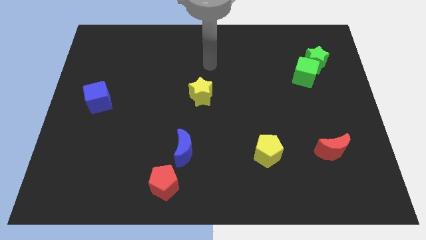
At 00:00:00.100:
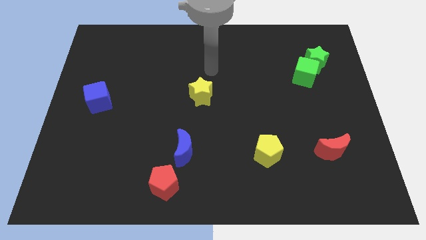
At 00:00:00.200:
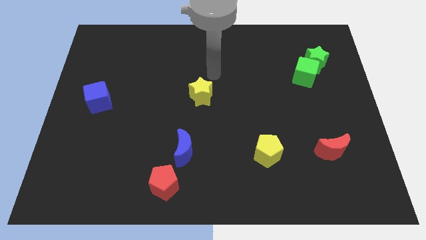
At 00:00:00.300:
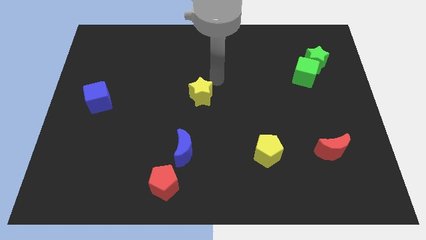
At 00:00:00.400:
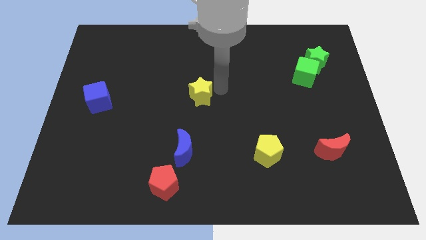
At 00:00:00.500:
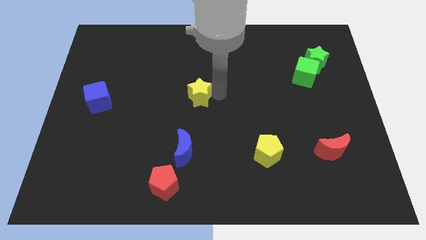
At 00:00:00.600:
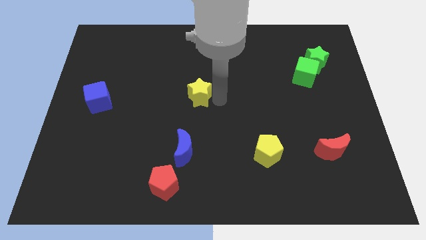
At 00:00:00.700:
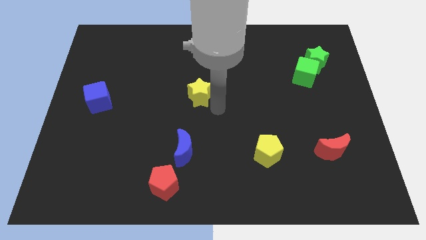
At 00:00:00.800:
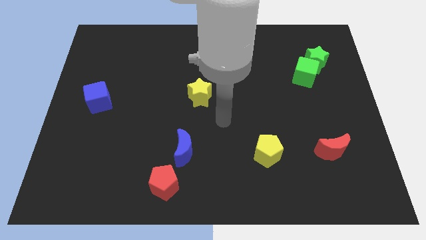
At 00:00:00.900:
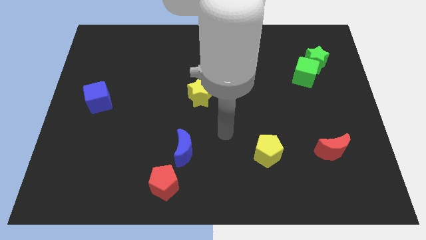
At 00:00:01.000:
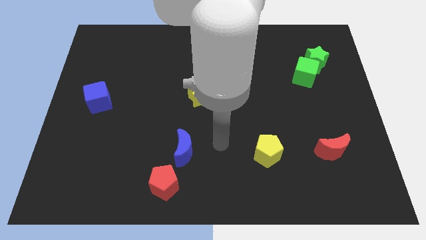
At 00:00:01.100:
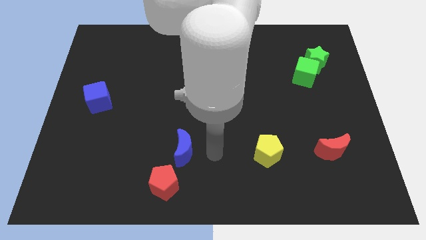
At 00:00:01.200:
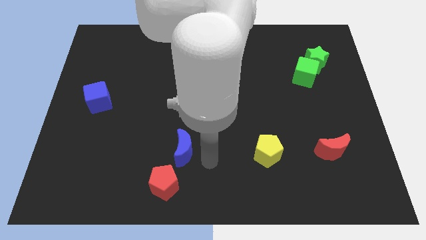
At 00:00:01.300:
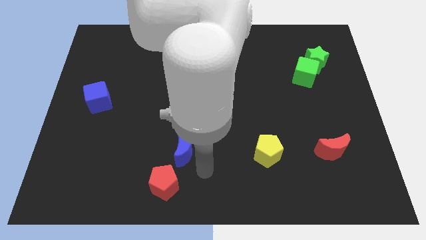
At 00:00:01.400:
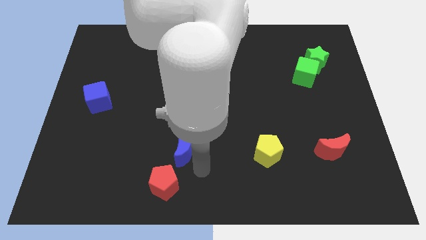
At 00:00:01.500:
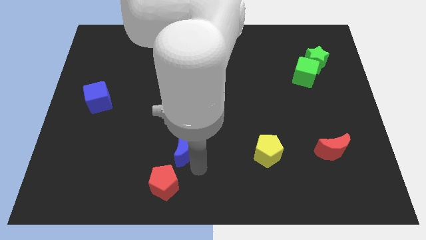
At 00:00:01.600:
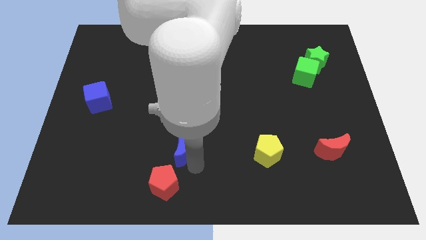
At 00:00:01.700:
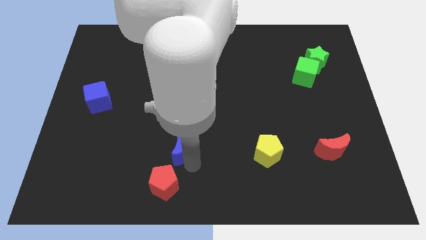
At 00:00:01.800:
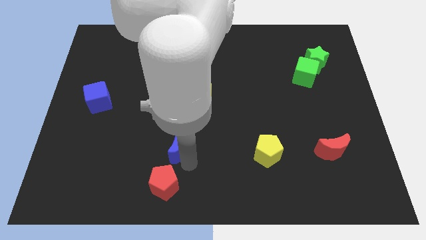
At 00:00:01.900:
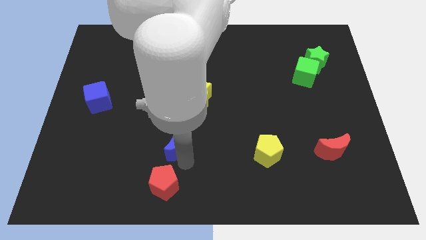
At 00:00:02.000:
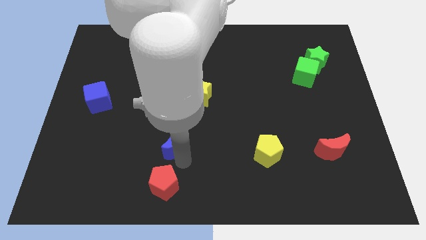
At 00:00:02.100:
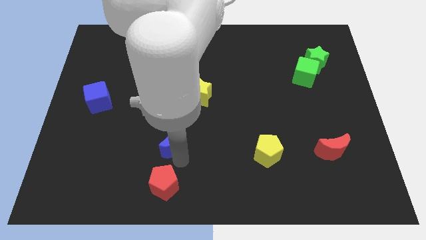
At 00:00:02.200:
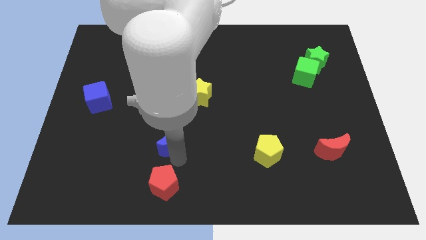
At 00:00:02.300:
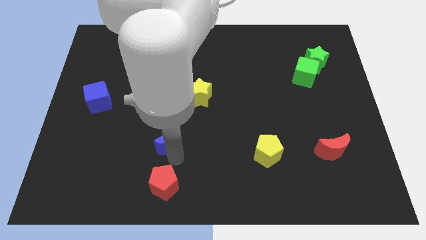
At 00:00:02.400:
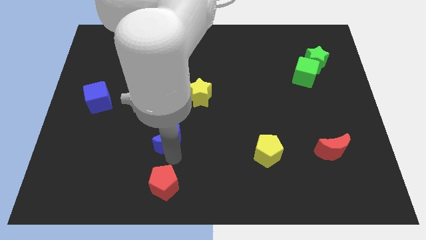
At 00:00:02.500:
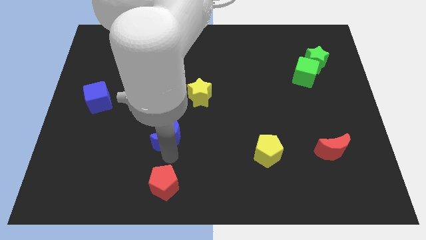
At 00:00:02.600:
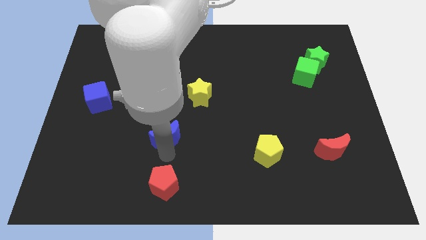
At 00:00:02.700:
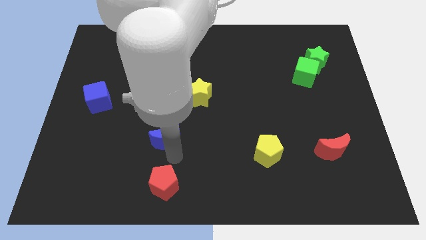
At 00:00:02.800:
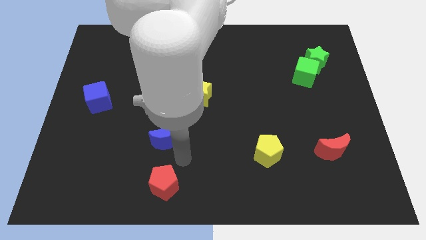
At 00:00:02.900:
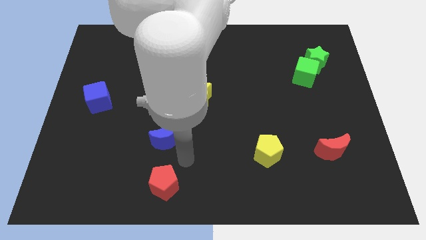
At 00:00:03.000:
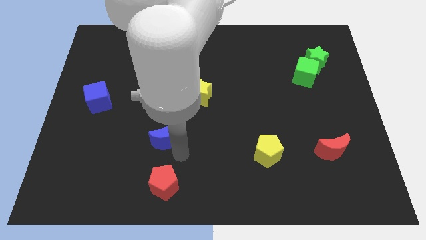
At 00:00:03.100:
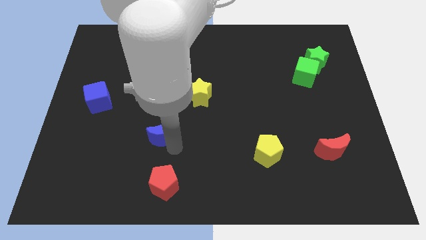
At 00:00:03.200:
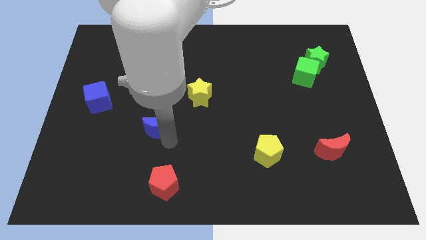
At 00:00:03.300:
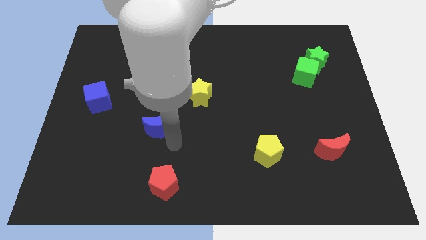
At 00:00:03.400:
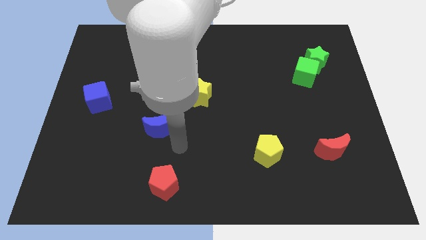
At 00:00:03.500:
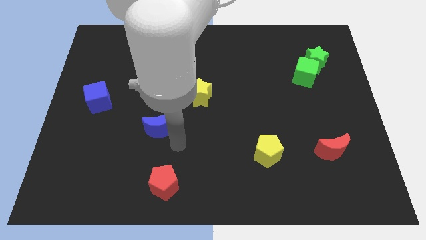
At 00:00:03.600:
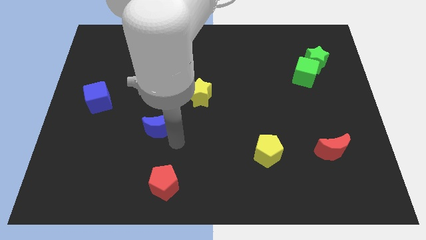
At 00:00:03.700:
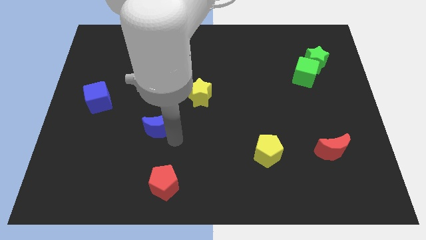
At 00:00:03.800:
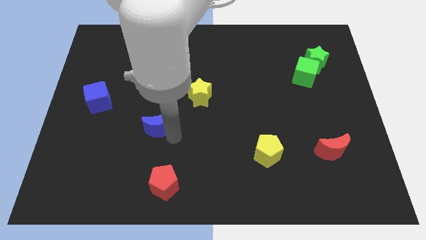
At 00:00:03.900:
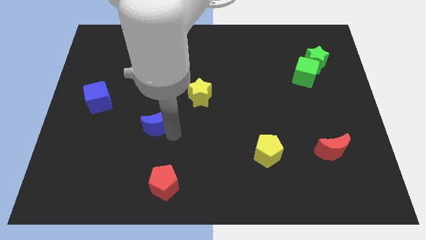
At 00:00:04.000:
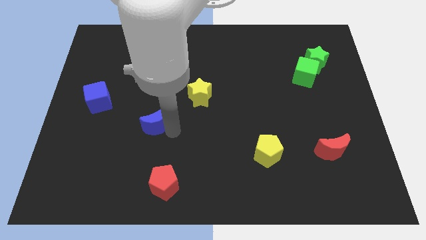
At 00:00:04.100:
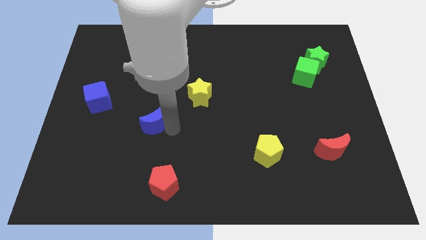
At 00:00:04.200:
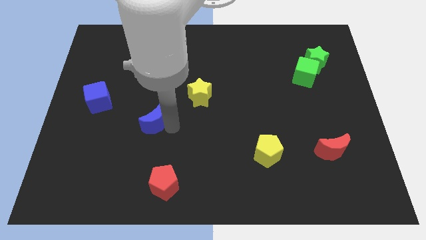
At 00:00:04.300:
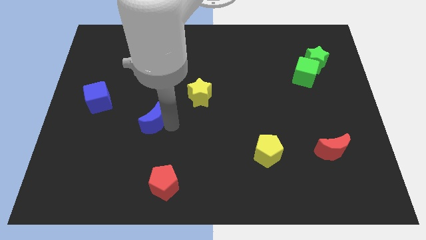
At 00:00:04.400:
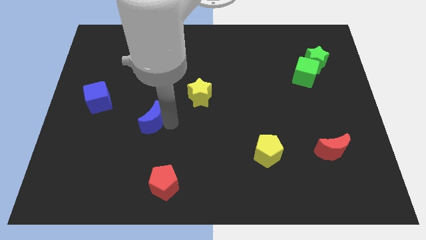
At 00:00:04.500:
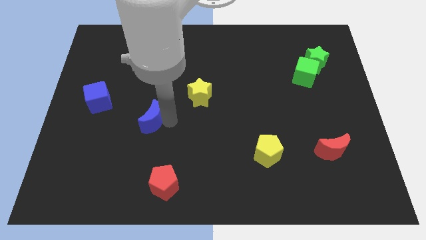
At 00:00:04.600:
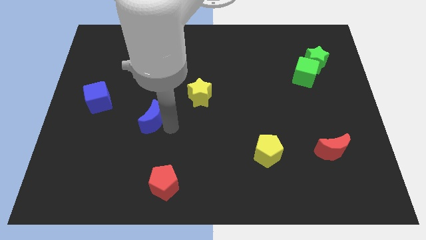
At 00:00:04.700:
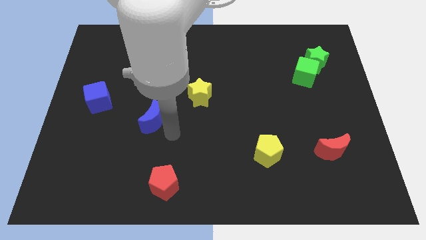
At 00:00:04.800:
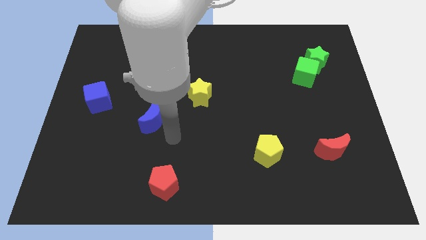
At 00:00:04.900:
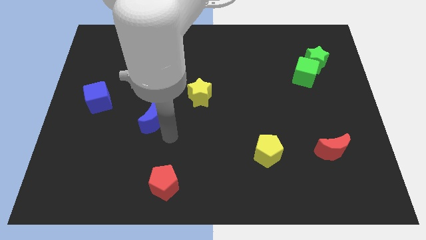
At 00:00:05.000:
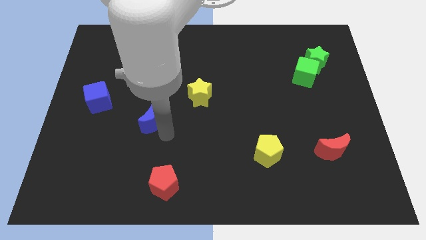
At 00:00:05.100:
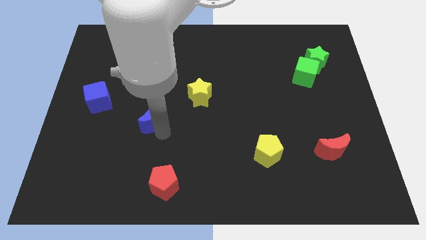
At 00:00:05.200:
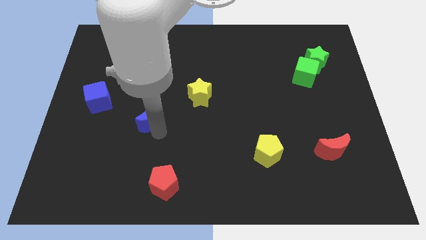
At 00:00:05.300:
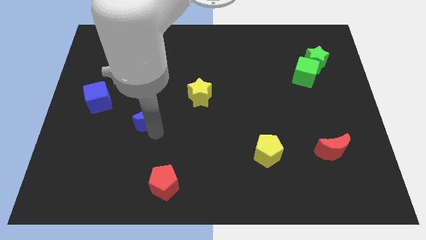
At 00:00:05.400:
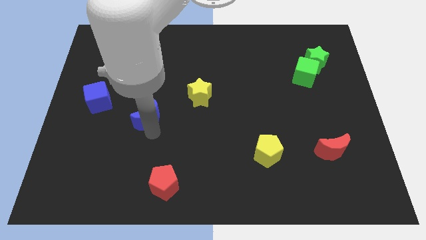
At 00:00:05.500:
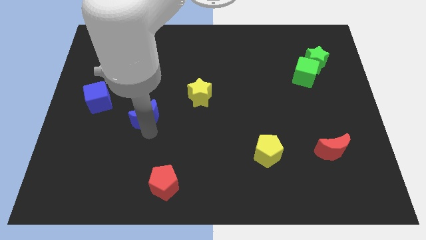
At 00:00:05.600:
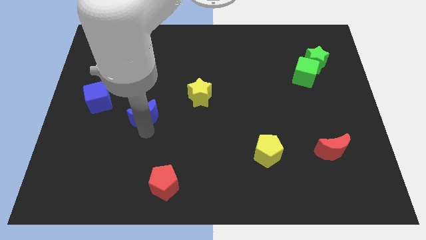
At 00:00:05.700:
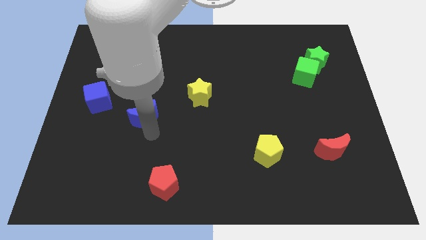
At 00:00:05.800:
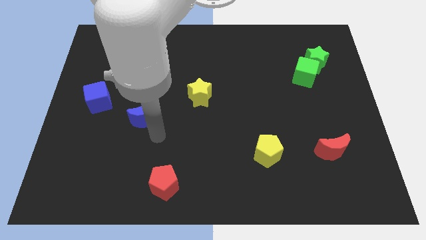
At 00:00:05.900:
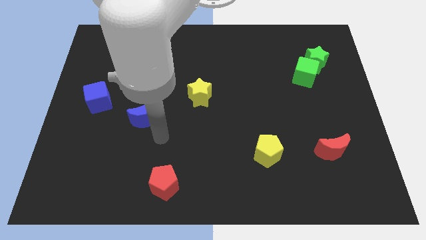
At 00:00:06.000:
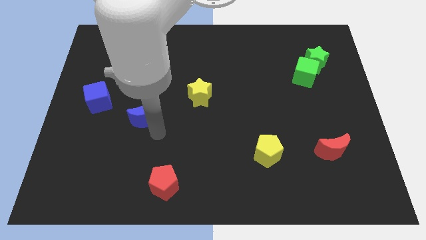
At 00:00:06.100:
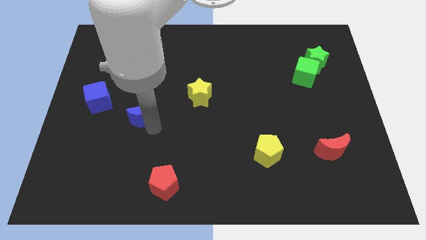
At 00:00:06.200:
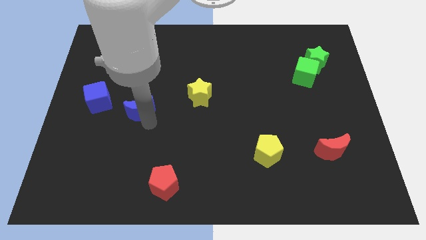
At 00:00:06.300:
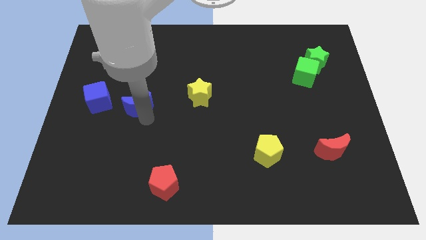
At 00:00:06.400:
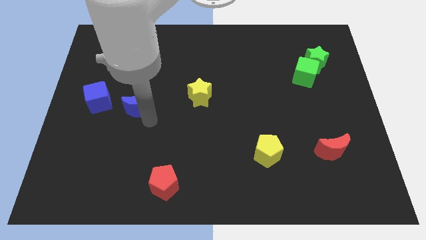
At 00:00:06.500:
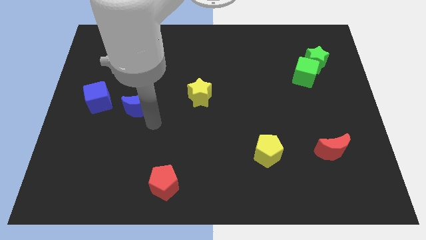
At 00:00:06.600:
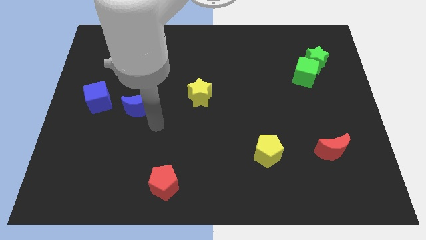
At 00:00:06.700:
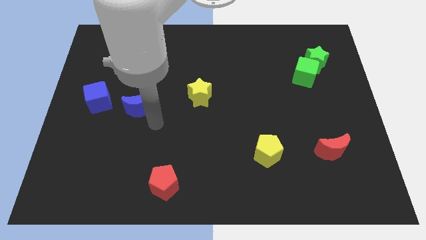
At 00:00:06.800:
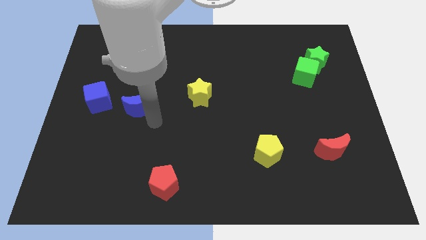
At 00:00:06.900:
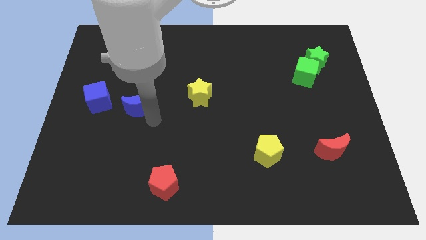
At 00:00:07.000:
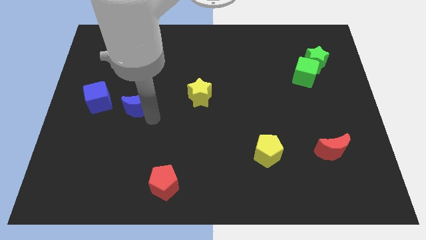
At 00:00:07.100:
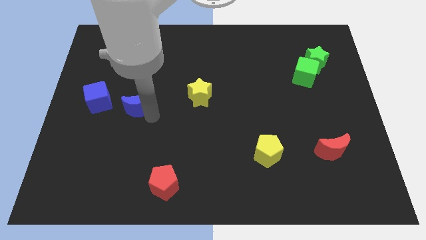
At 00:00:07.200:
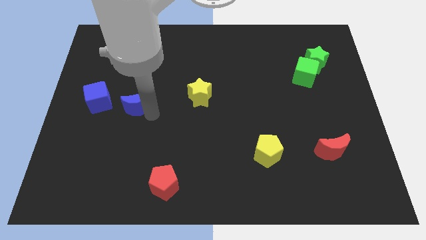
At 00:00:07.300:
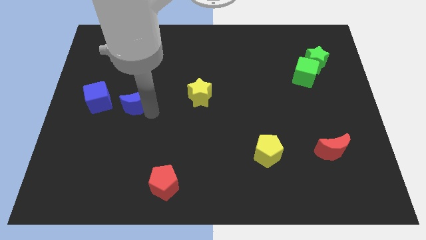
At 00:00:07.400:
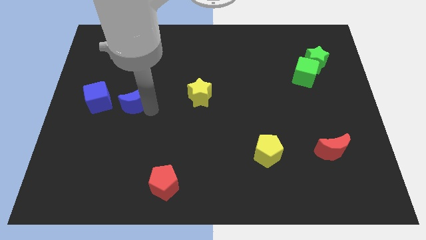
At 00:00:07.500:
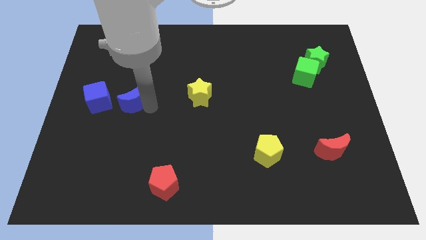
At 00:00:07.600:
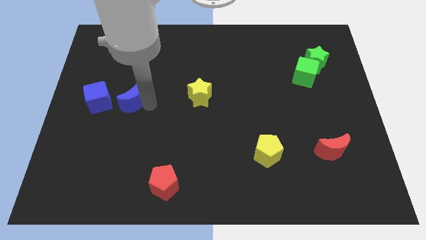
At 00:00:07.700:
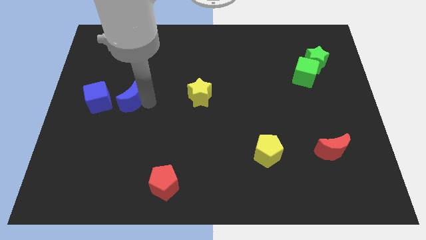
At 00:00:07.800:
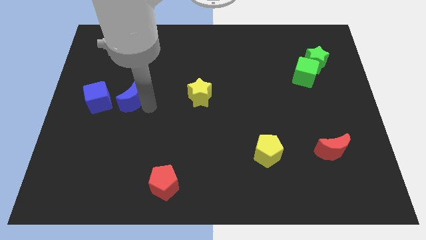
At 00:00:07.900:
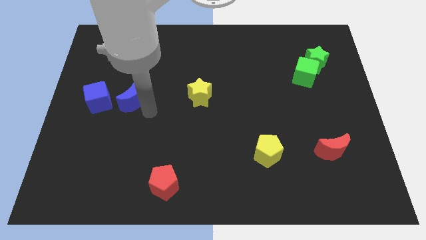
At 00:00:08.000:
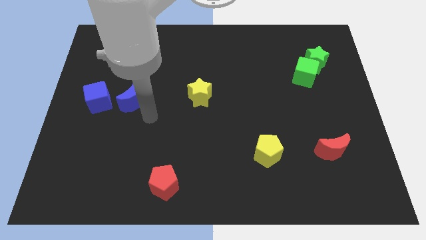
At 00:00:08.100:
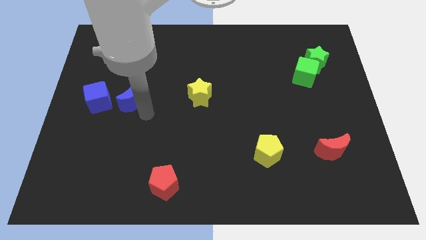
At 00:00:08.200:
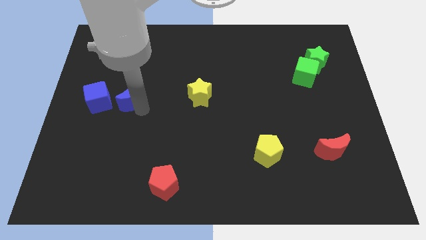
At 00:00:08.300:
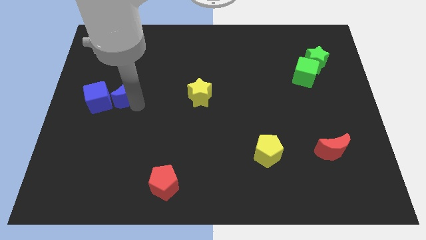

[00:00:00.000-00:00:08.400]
push the blue moon upwards and then left
